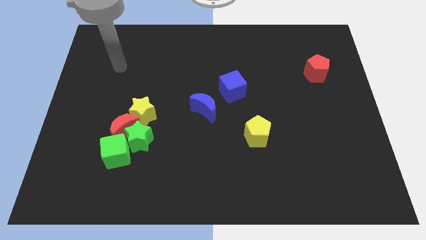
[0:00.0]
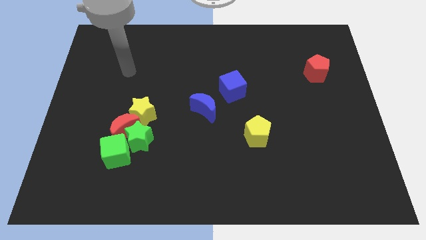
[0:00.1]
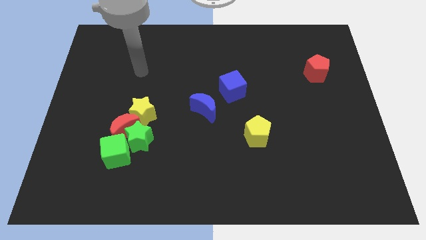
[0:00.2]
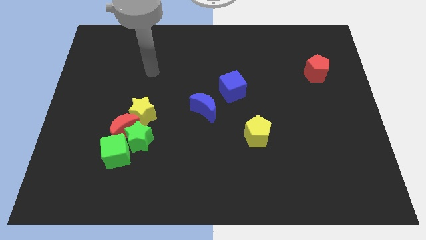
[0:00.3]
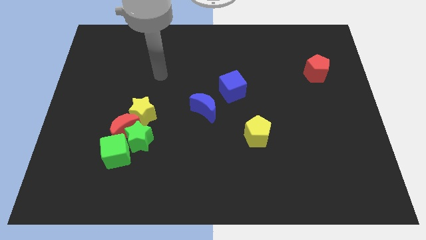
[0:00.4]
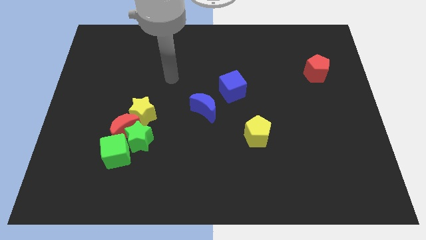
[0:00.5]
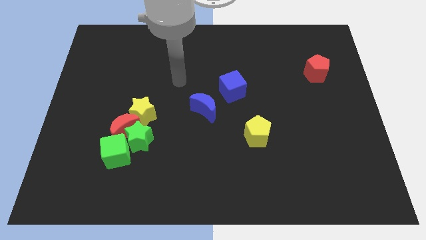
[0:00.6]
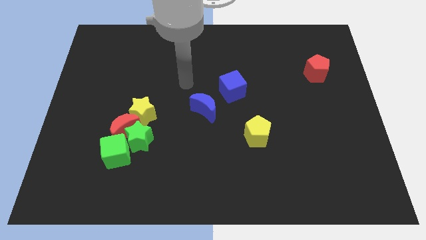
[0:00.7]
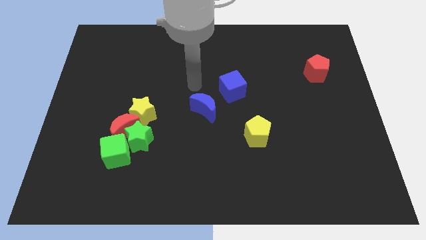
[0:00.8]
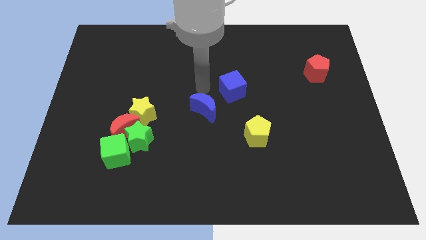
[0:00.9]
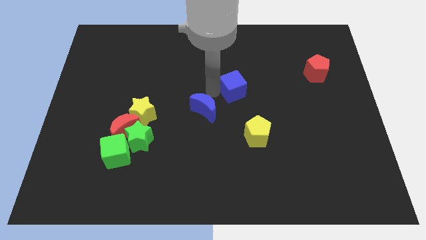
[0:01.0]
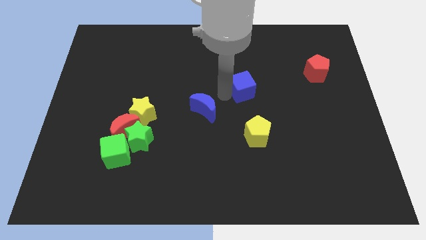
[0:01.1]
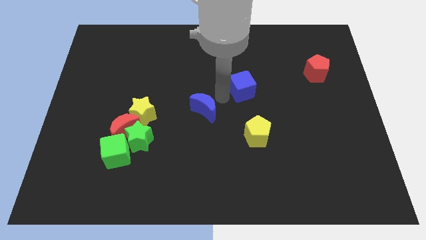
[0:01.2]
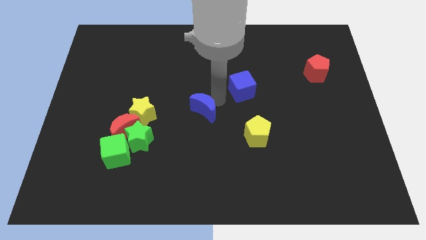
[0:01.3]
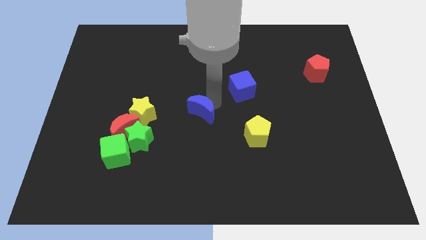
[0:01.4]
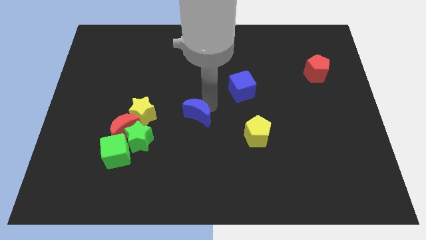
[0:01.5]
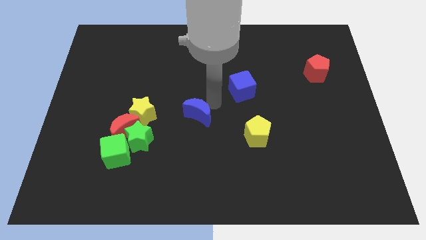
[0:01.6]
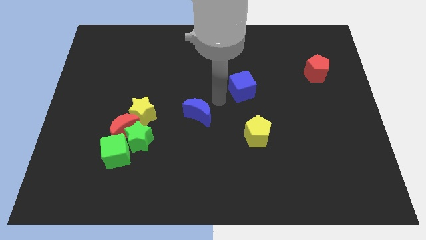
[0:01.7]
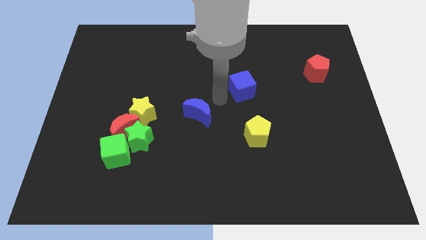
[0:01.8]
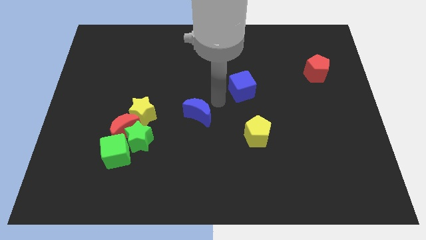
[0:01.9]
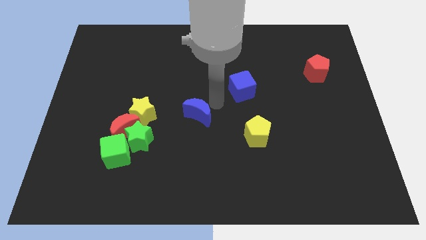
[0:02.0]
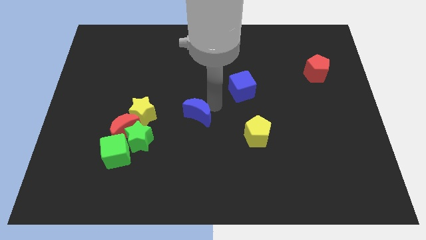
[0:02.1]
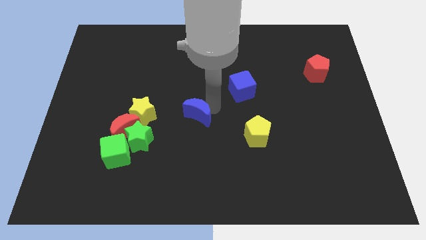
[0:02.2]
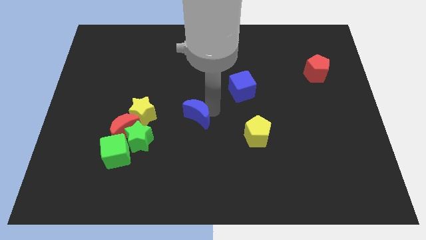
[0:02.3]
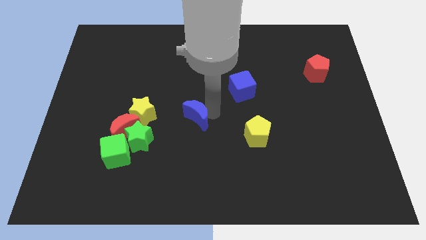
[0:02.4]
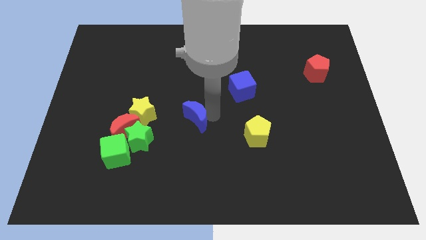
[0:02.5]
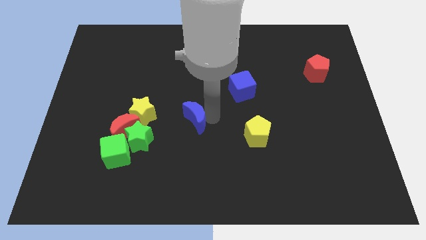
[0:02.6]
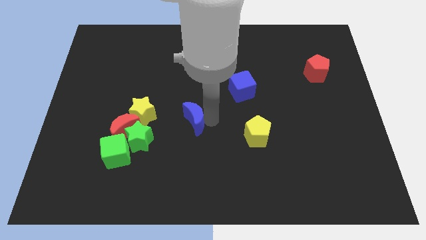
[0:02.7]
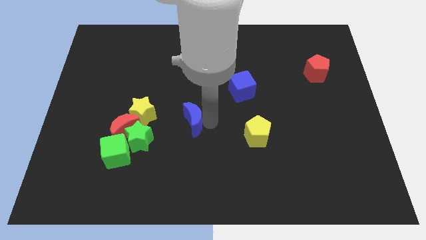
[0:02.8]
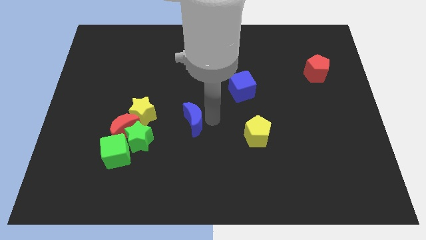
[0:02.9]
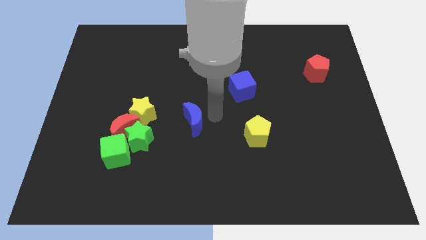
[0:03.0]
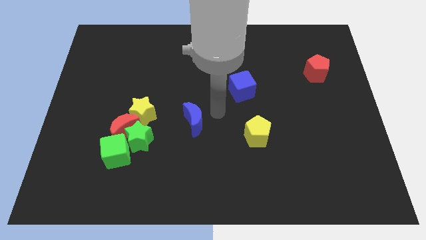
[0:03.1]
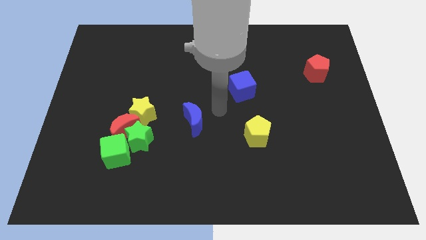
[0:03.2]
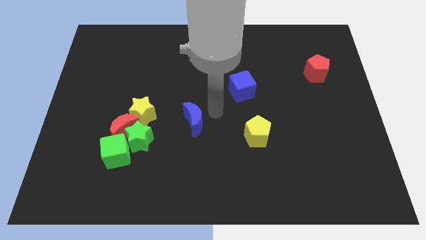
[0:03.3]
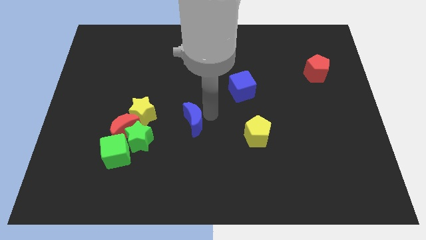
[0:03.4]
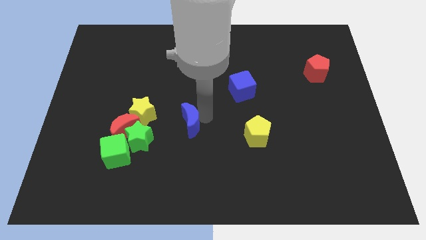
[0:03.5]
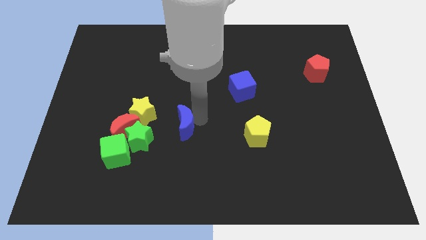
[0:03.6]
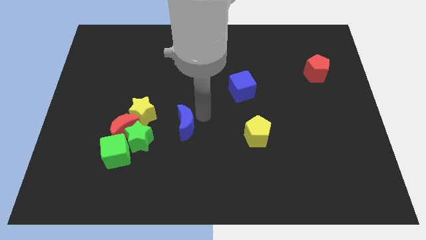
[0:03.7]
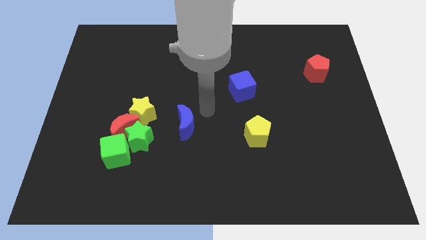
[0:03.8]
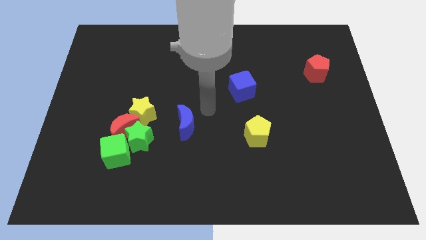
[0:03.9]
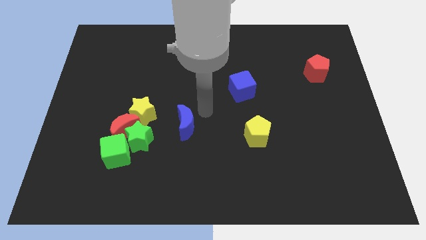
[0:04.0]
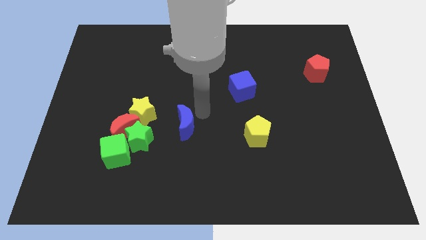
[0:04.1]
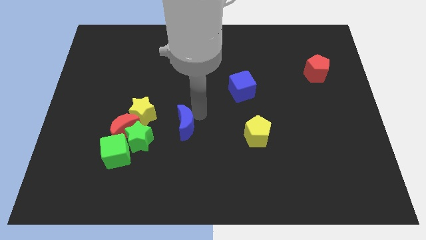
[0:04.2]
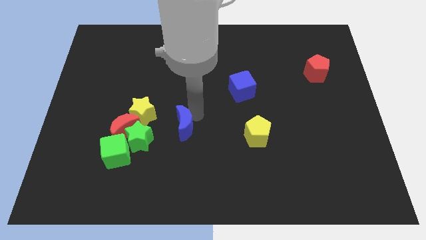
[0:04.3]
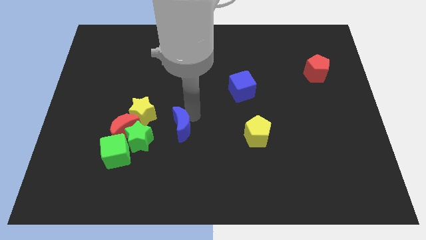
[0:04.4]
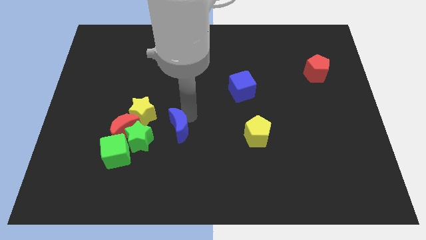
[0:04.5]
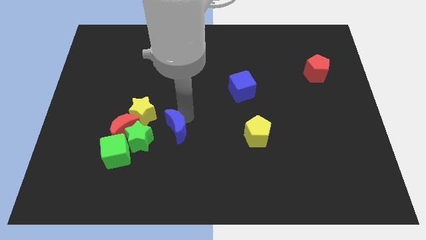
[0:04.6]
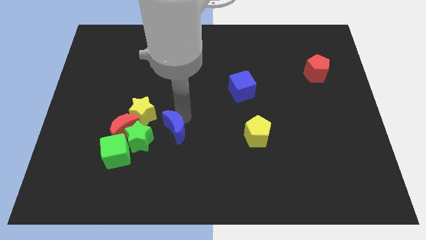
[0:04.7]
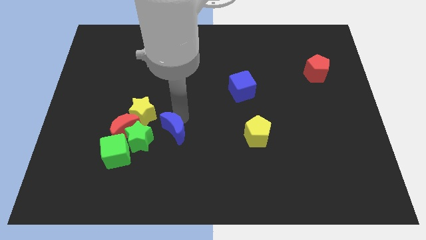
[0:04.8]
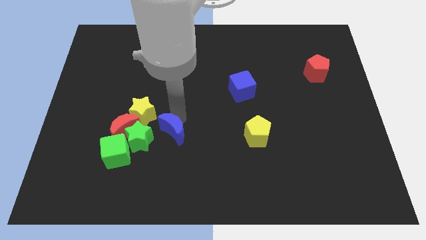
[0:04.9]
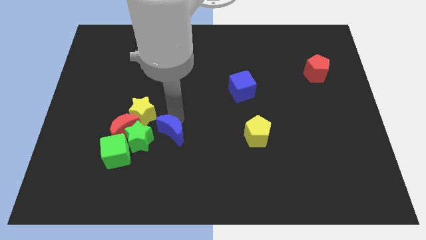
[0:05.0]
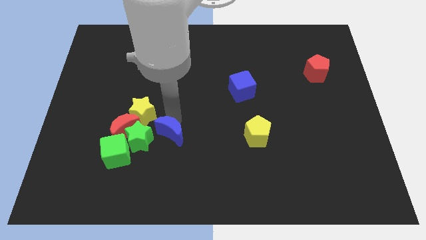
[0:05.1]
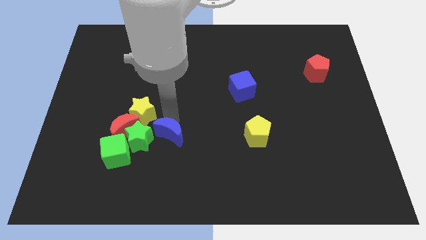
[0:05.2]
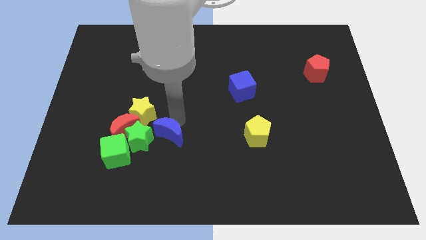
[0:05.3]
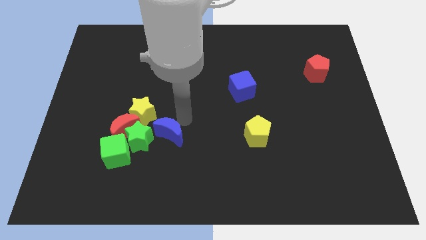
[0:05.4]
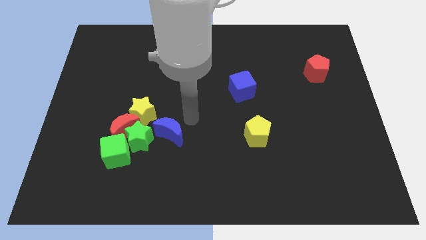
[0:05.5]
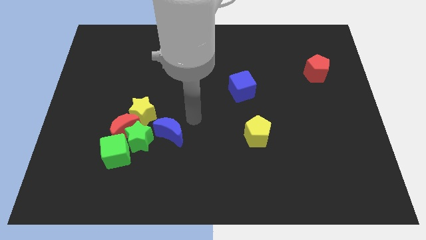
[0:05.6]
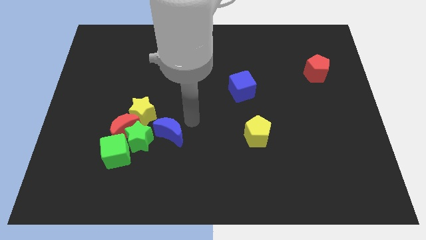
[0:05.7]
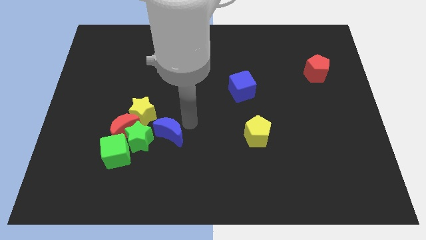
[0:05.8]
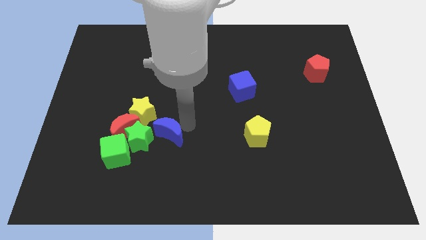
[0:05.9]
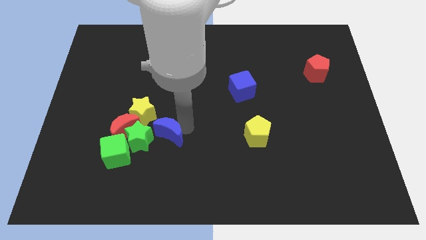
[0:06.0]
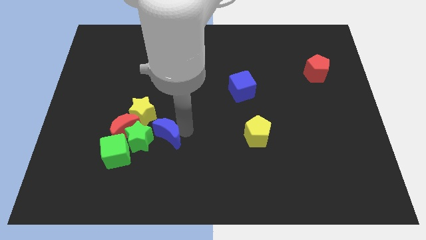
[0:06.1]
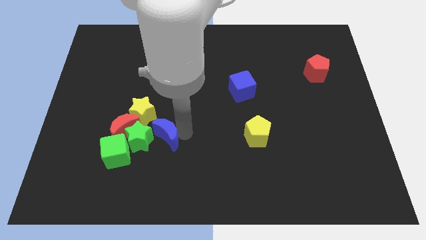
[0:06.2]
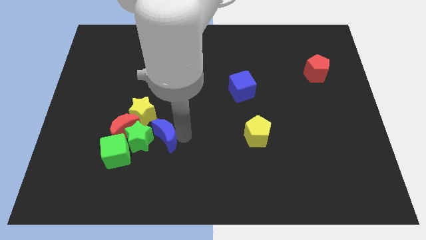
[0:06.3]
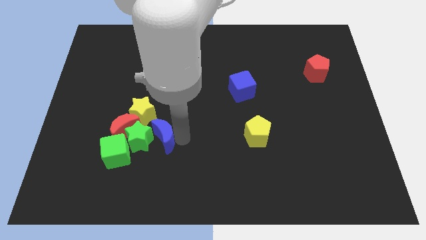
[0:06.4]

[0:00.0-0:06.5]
push the blue moon to the bottom right side of the red moon
